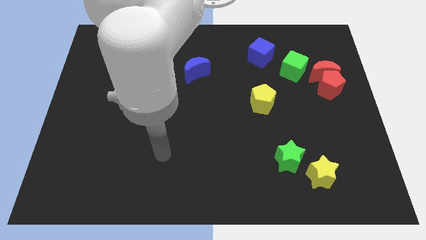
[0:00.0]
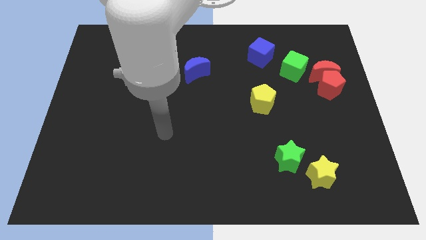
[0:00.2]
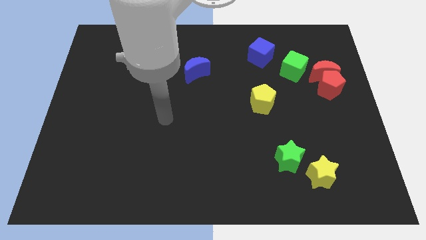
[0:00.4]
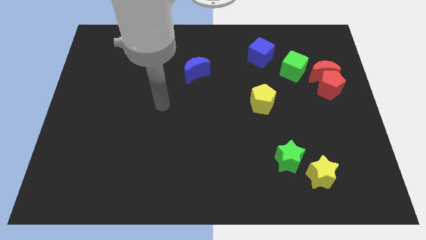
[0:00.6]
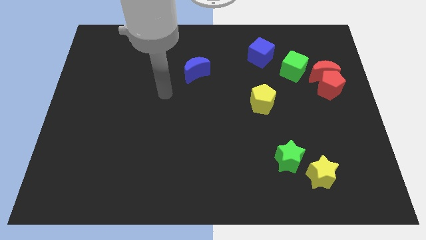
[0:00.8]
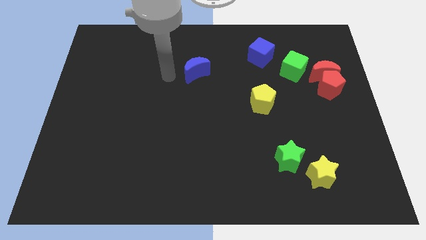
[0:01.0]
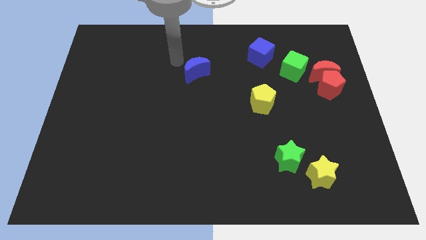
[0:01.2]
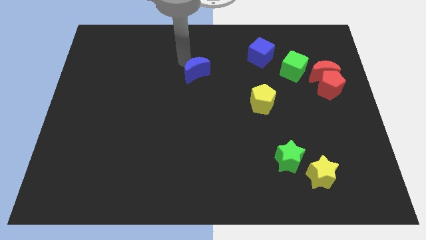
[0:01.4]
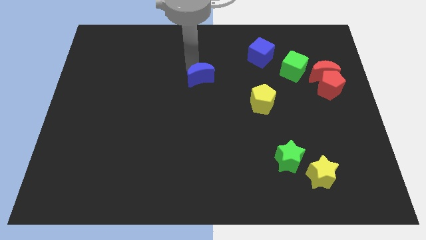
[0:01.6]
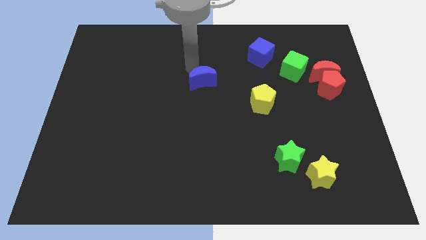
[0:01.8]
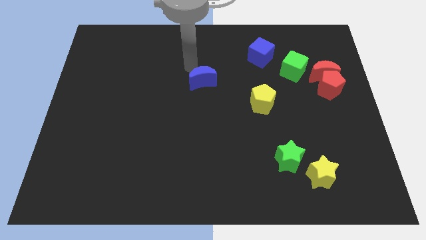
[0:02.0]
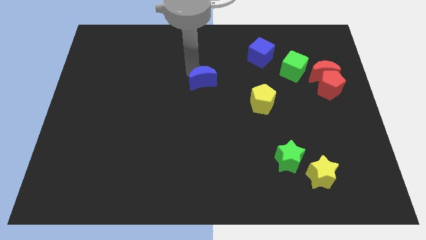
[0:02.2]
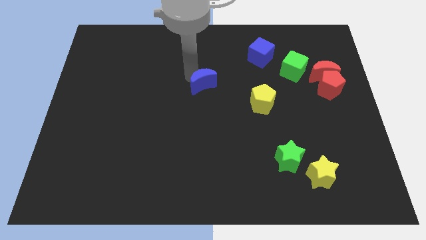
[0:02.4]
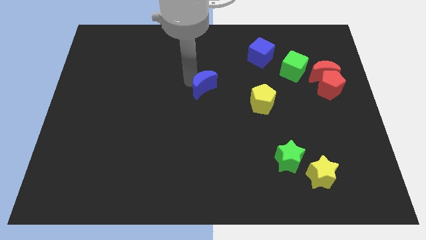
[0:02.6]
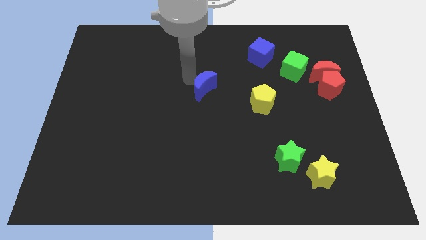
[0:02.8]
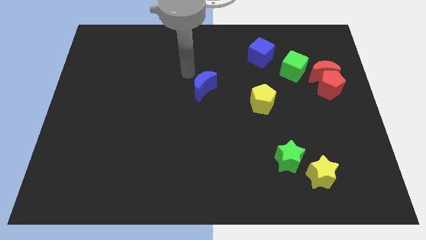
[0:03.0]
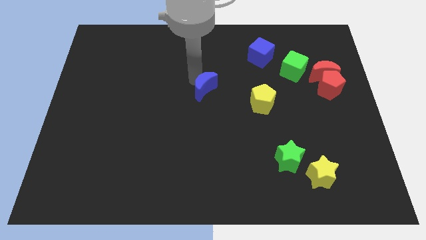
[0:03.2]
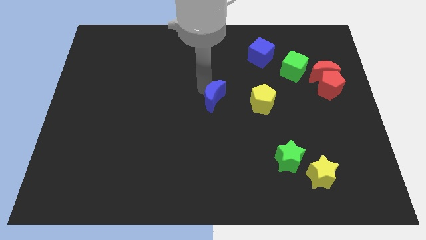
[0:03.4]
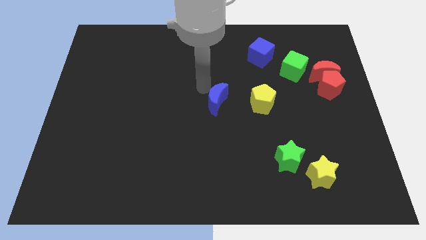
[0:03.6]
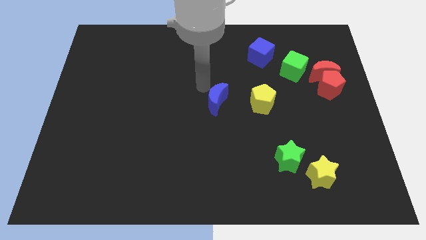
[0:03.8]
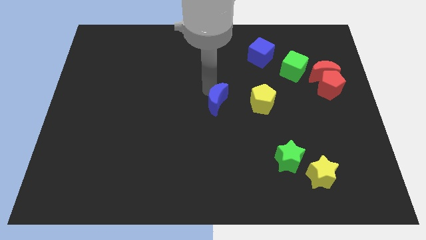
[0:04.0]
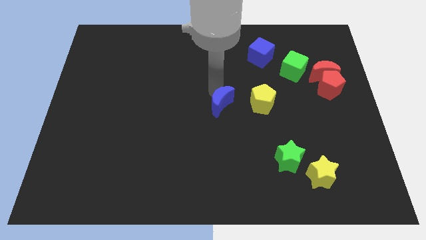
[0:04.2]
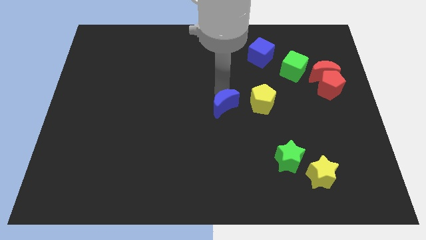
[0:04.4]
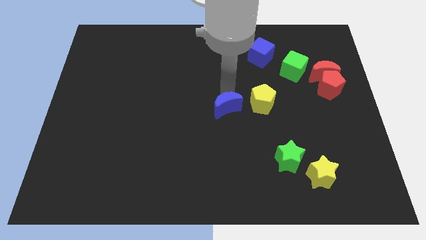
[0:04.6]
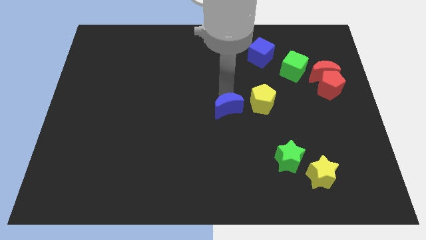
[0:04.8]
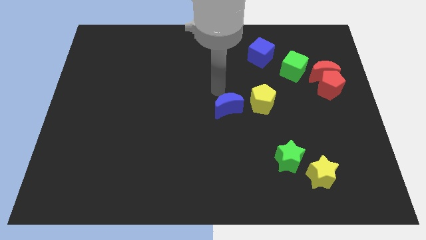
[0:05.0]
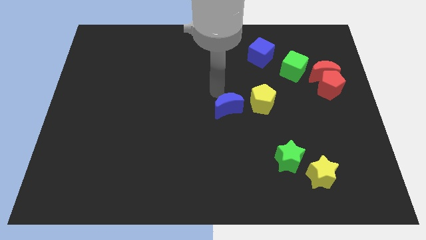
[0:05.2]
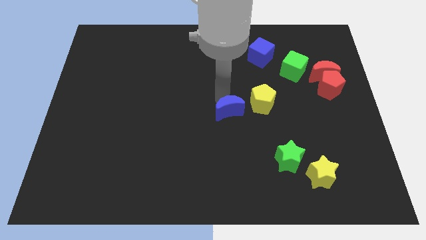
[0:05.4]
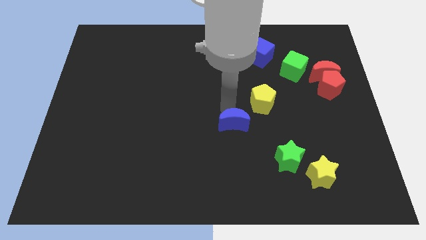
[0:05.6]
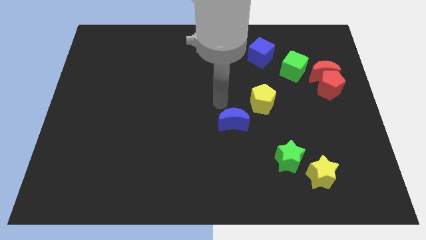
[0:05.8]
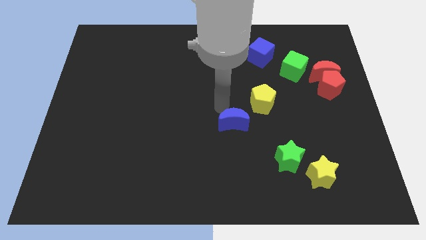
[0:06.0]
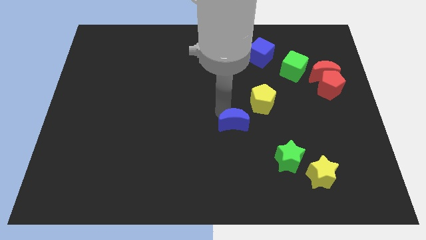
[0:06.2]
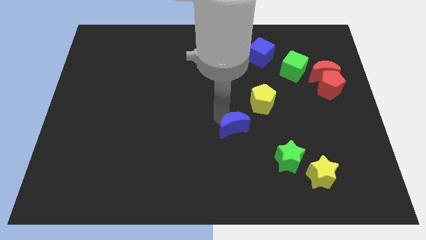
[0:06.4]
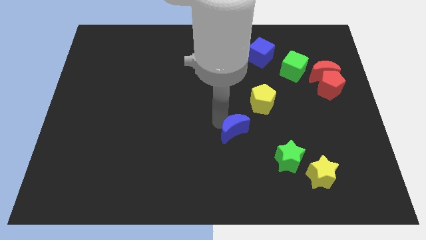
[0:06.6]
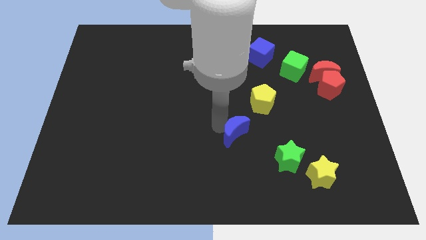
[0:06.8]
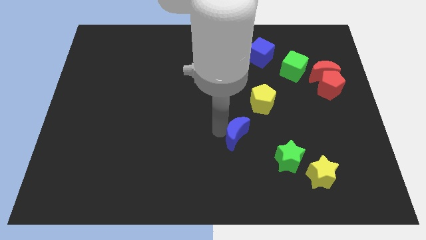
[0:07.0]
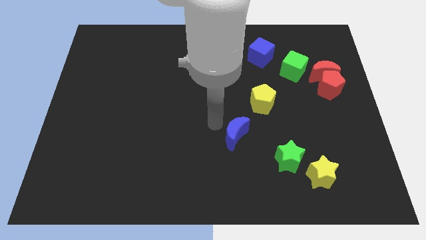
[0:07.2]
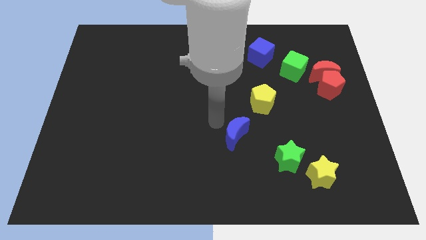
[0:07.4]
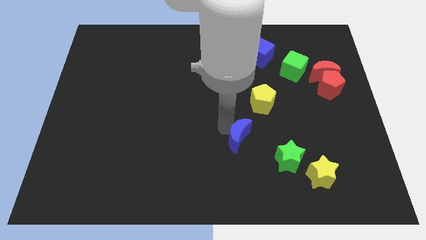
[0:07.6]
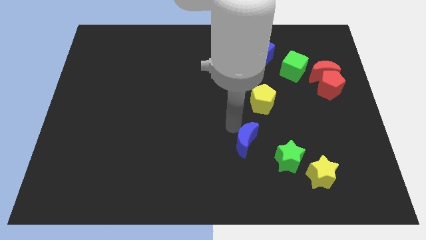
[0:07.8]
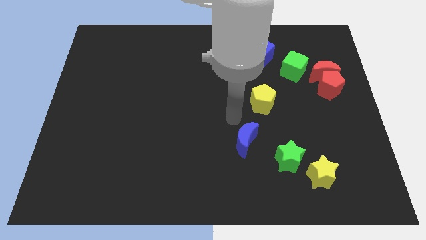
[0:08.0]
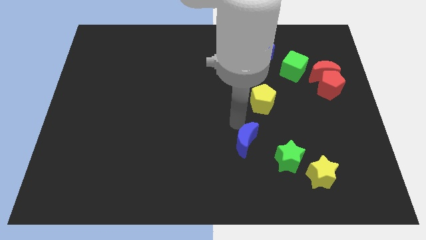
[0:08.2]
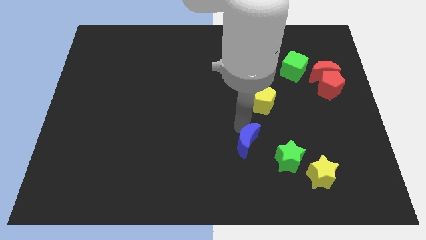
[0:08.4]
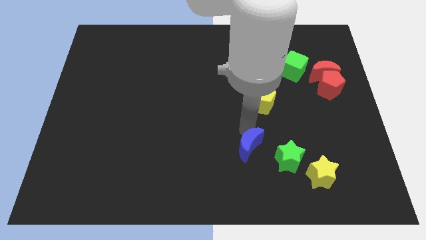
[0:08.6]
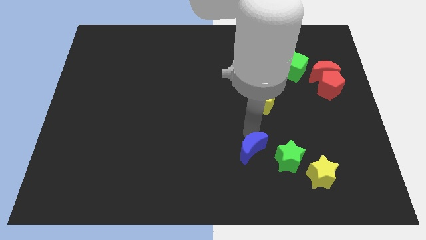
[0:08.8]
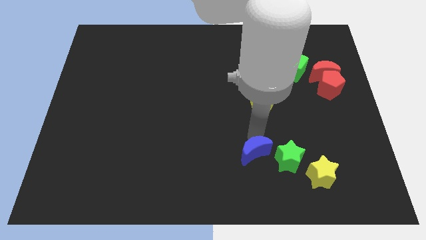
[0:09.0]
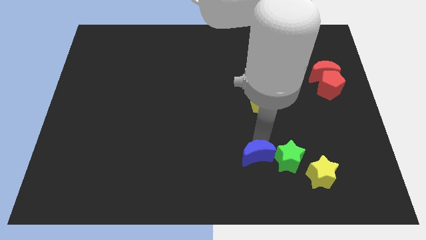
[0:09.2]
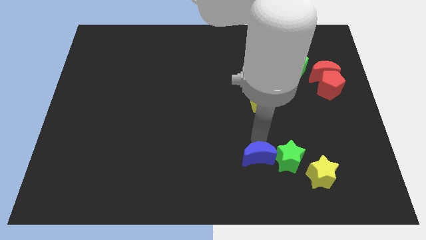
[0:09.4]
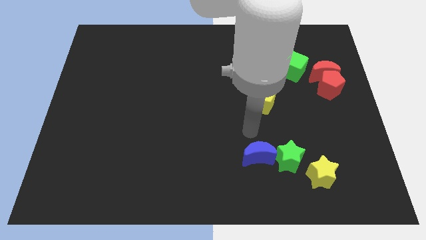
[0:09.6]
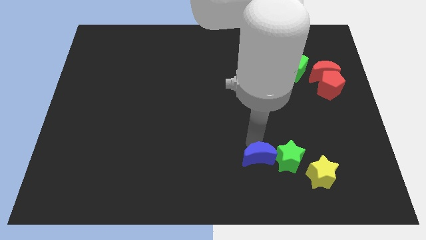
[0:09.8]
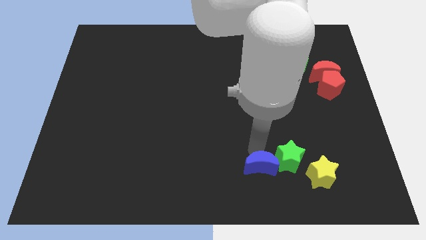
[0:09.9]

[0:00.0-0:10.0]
slide the blue moon to the bottom left side of the green star

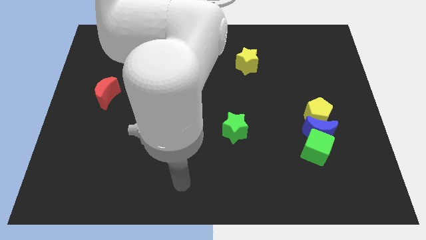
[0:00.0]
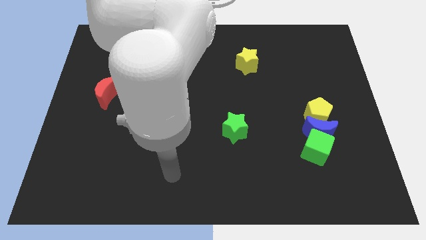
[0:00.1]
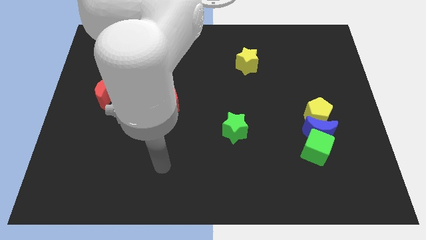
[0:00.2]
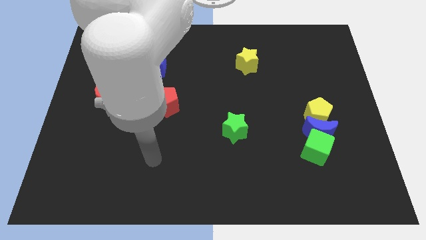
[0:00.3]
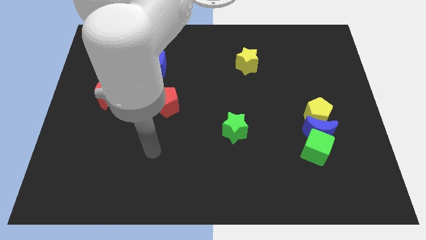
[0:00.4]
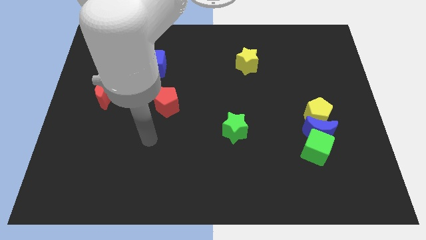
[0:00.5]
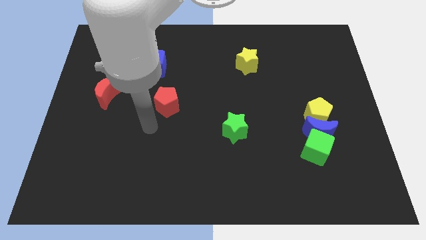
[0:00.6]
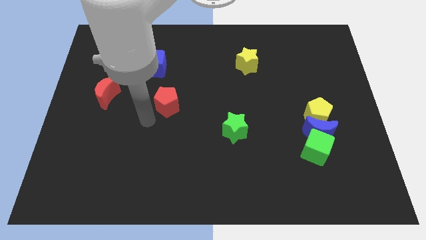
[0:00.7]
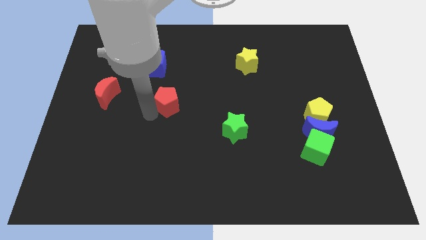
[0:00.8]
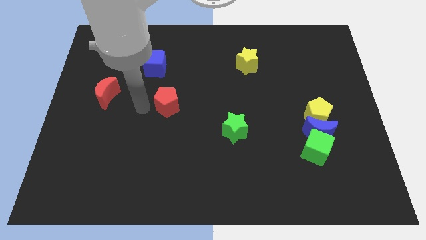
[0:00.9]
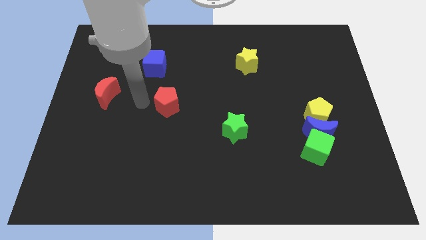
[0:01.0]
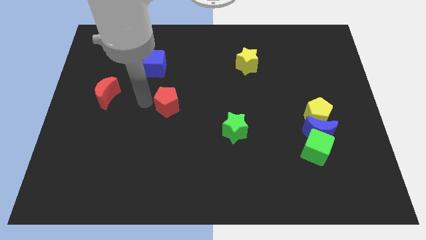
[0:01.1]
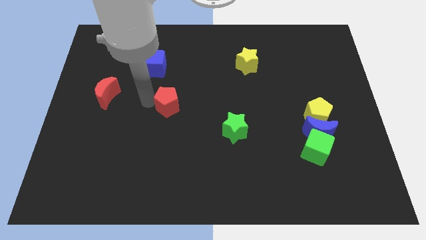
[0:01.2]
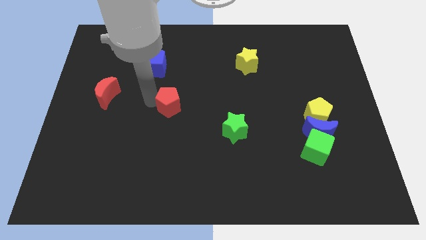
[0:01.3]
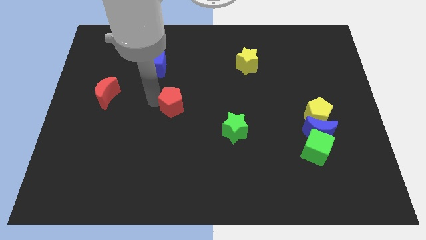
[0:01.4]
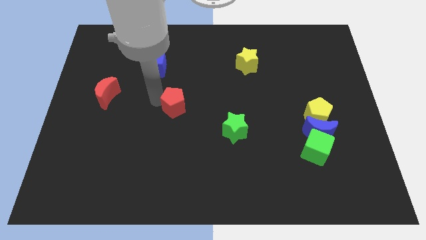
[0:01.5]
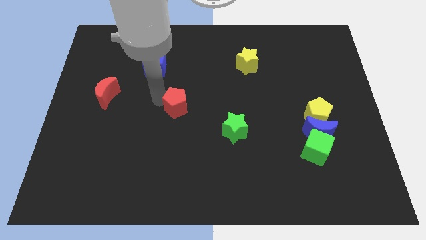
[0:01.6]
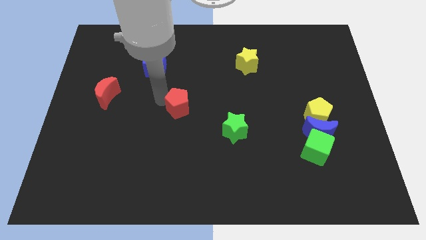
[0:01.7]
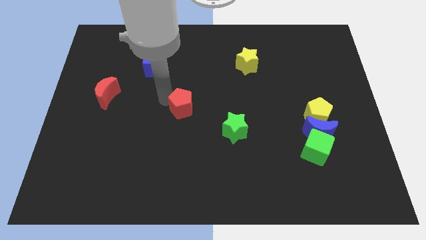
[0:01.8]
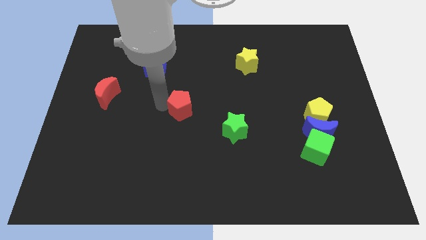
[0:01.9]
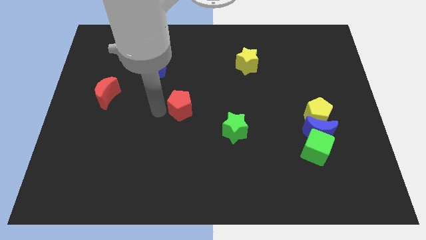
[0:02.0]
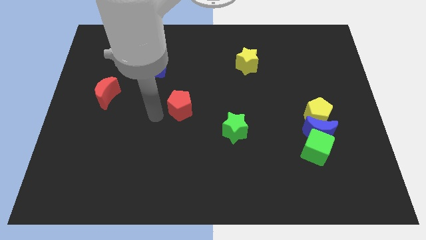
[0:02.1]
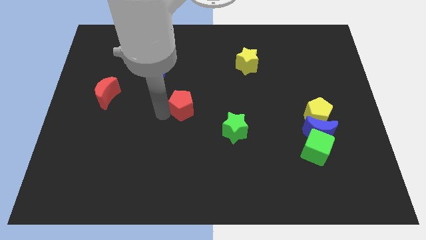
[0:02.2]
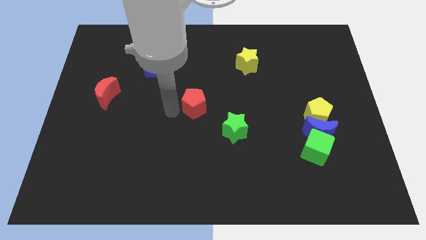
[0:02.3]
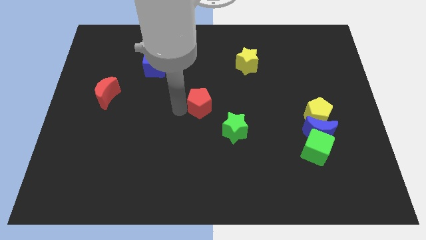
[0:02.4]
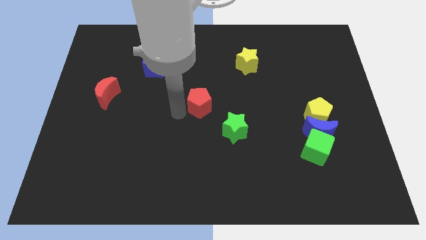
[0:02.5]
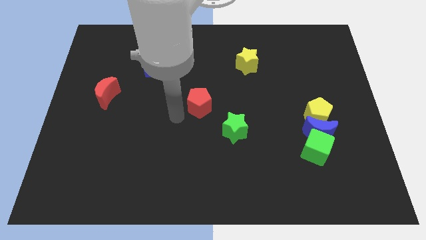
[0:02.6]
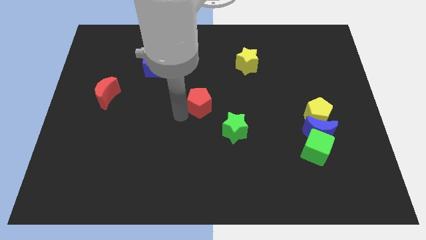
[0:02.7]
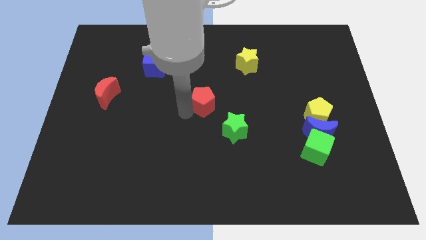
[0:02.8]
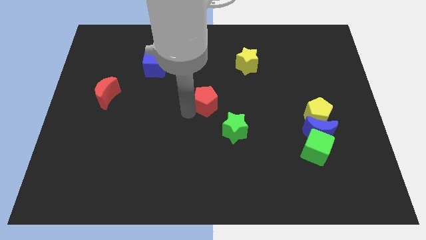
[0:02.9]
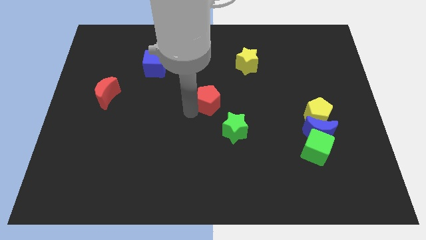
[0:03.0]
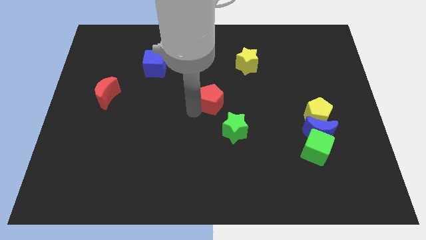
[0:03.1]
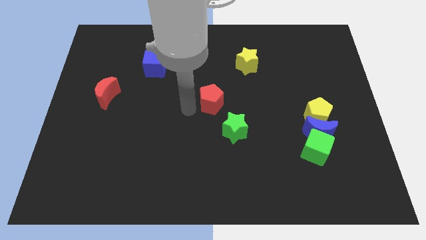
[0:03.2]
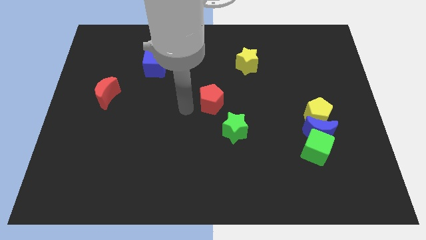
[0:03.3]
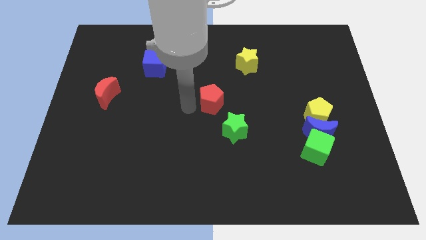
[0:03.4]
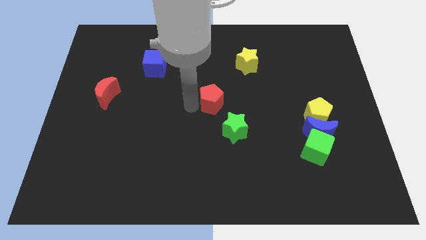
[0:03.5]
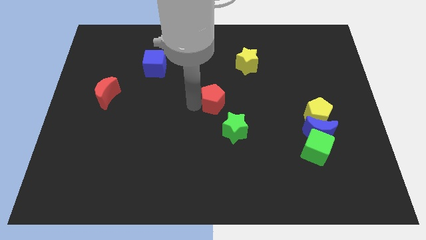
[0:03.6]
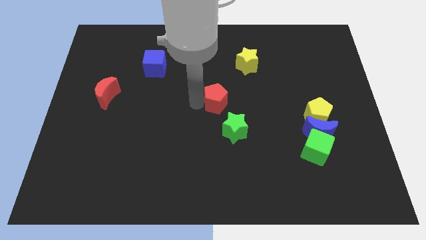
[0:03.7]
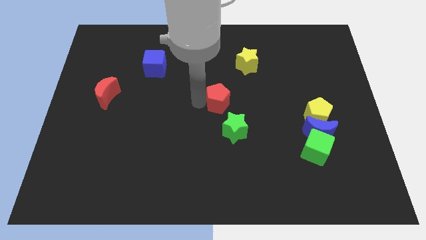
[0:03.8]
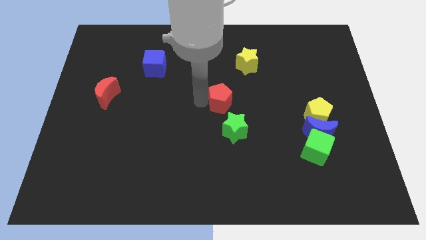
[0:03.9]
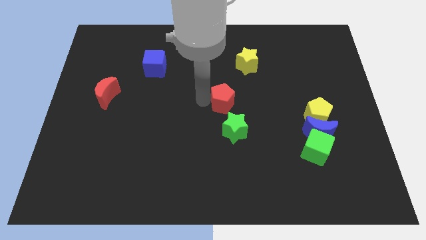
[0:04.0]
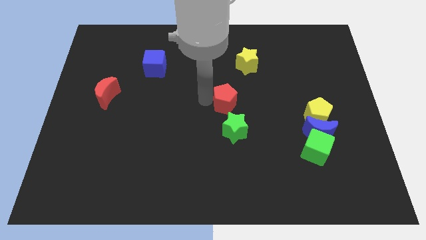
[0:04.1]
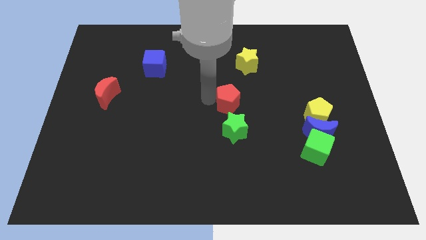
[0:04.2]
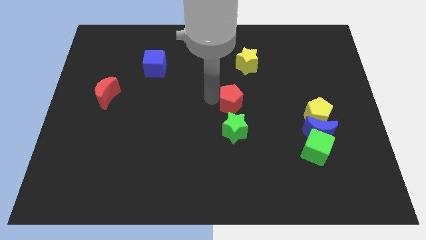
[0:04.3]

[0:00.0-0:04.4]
push the red pentagon to the bottom side of the yellow star
